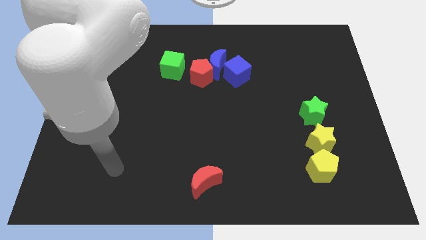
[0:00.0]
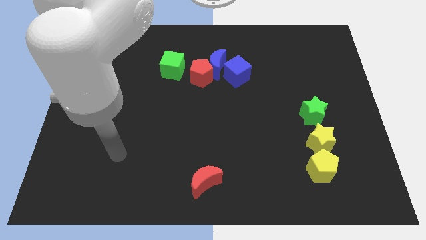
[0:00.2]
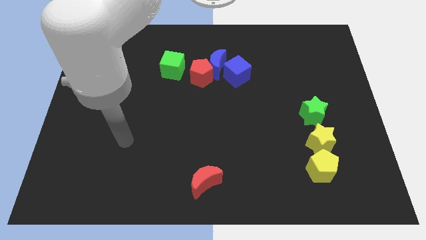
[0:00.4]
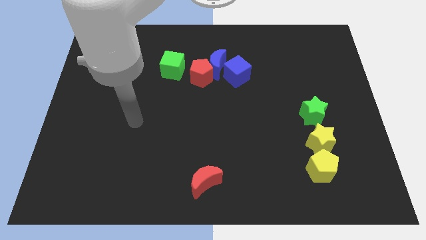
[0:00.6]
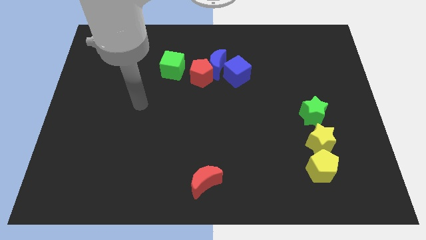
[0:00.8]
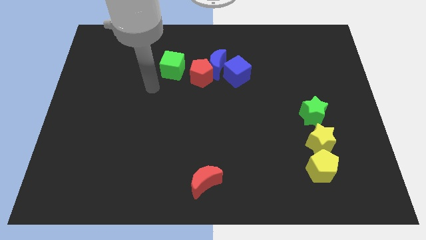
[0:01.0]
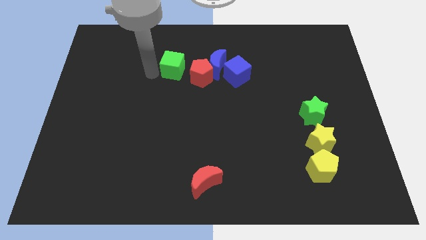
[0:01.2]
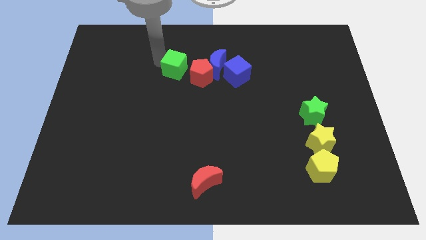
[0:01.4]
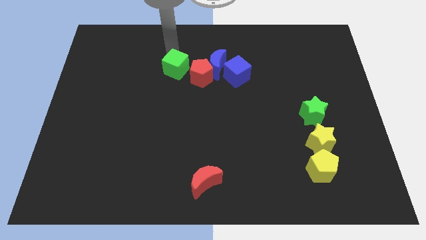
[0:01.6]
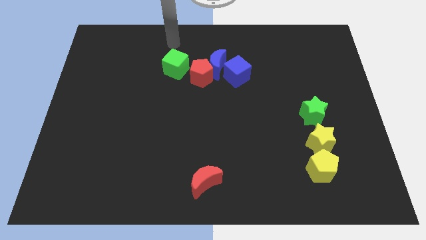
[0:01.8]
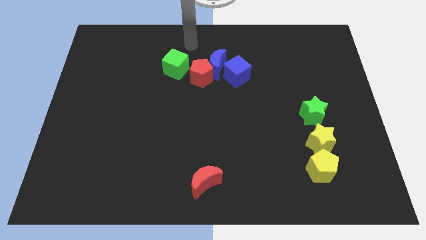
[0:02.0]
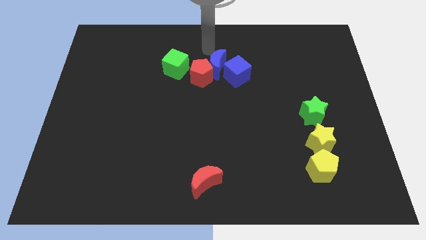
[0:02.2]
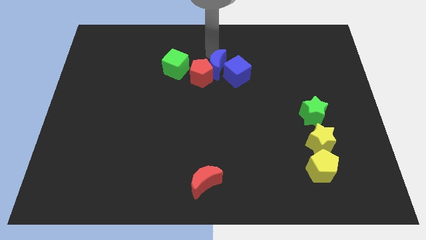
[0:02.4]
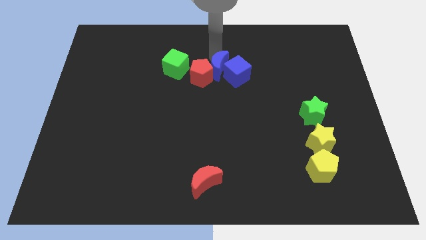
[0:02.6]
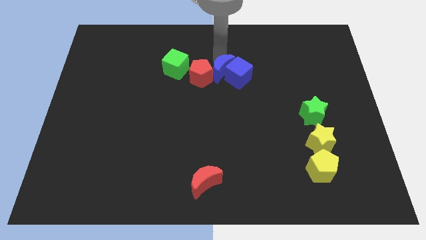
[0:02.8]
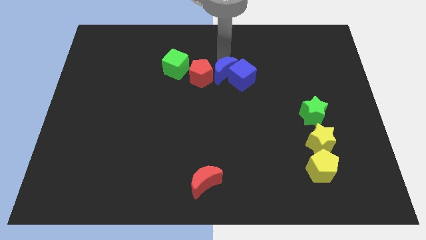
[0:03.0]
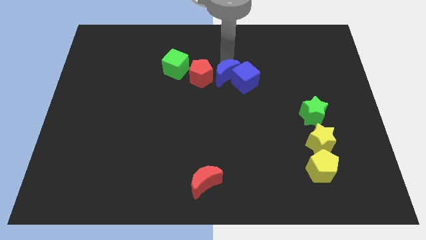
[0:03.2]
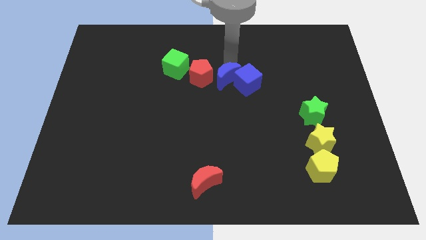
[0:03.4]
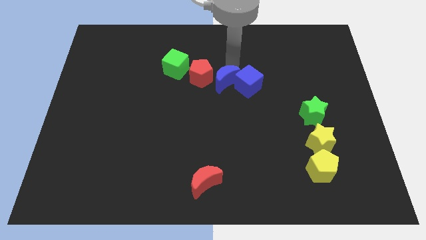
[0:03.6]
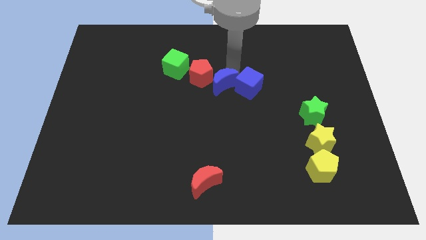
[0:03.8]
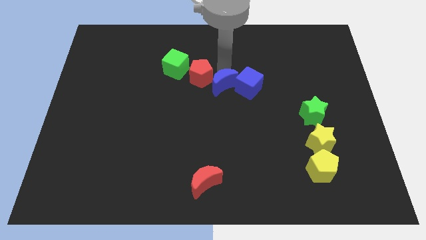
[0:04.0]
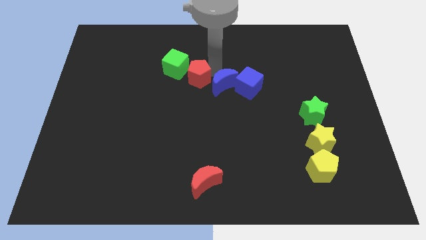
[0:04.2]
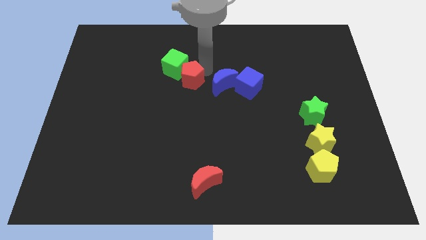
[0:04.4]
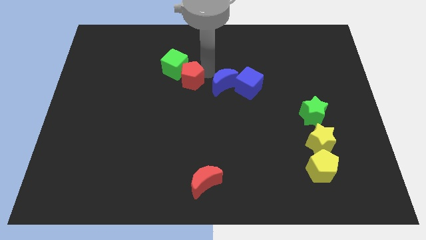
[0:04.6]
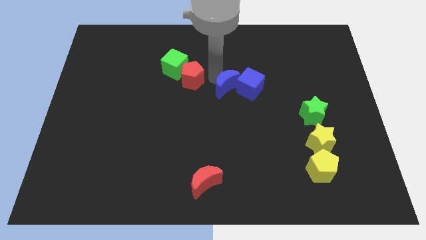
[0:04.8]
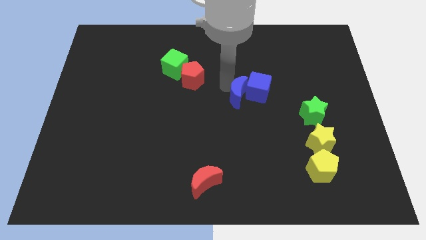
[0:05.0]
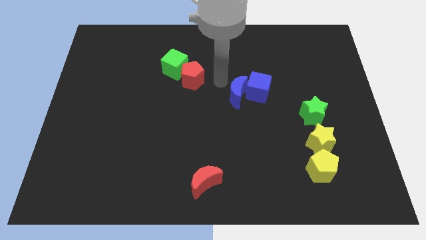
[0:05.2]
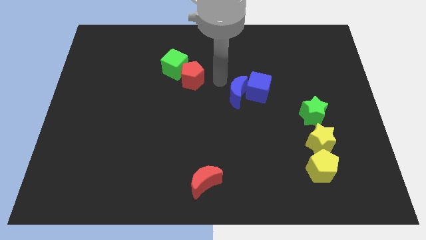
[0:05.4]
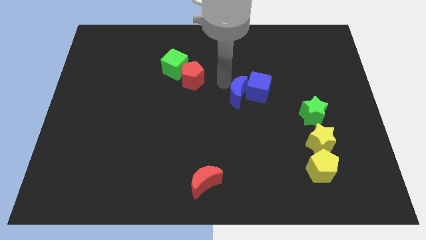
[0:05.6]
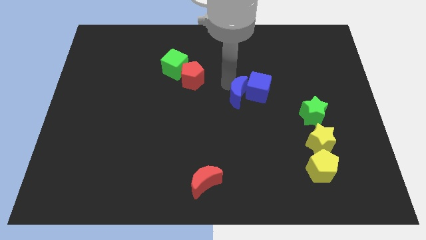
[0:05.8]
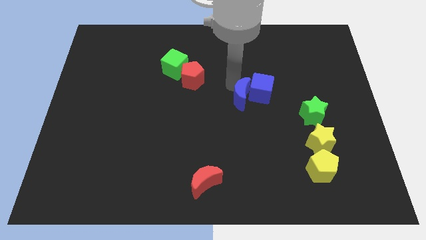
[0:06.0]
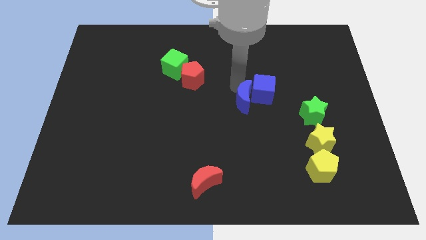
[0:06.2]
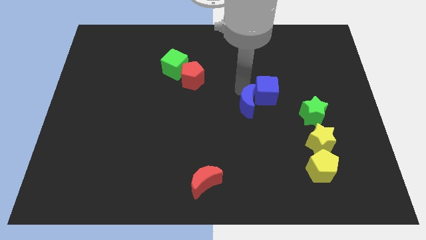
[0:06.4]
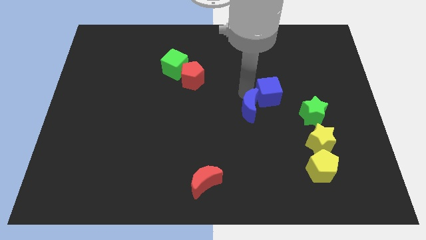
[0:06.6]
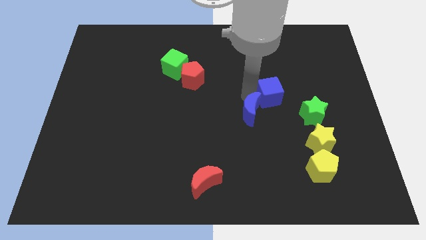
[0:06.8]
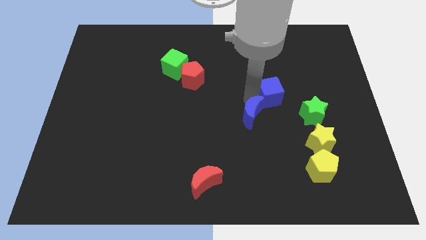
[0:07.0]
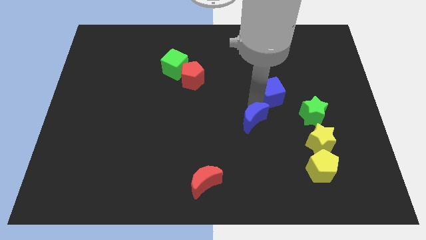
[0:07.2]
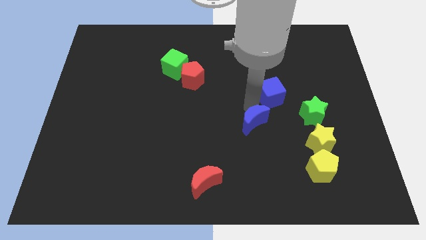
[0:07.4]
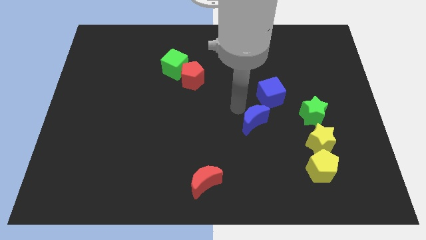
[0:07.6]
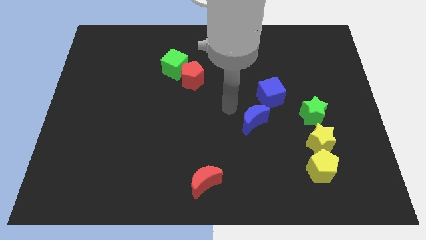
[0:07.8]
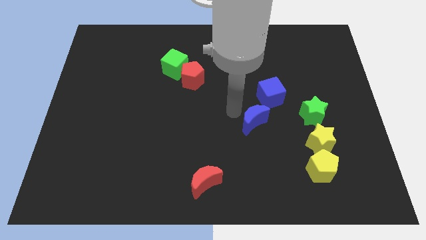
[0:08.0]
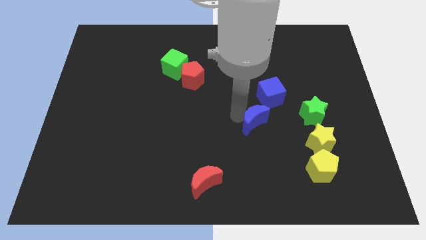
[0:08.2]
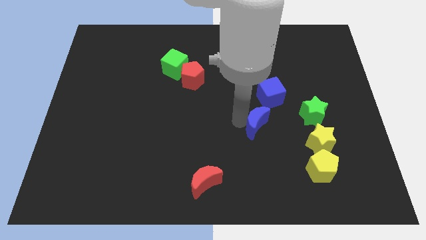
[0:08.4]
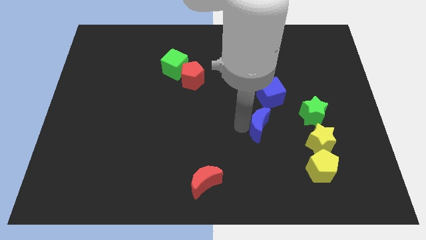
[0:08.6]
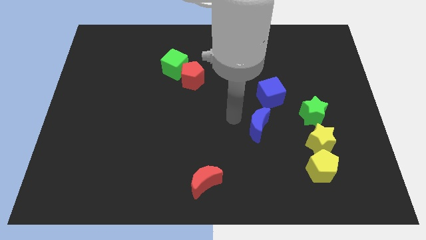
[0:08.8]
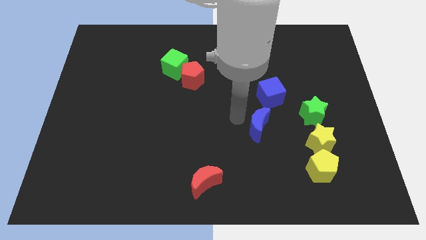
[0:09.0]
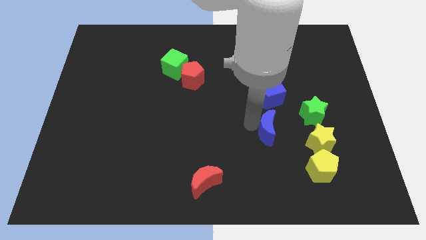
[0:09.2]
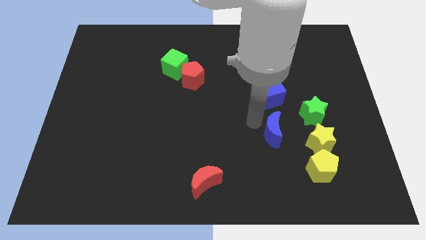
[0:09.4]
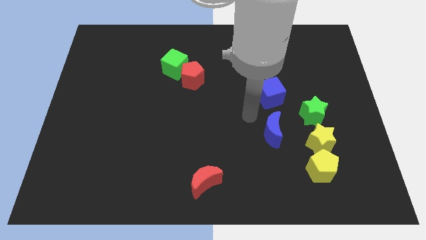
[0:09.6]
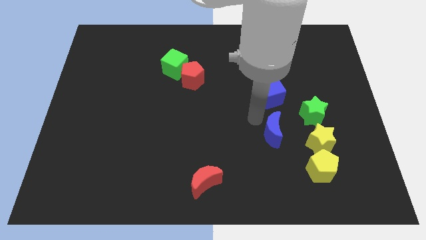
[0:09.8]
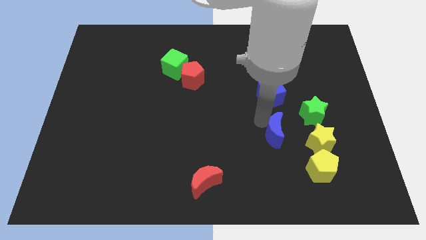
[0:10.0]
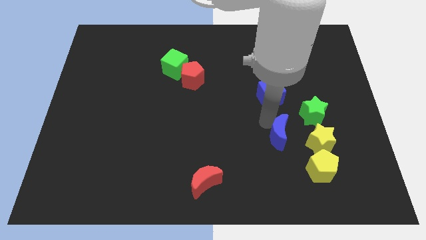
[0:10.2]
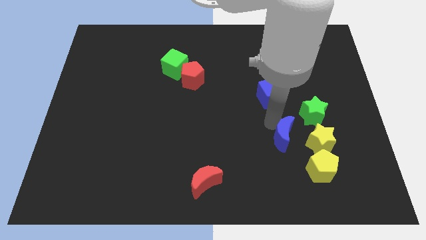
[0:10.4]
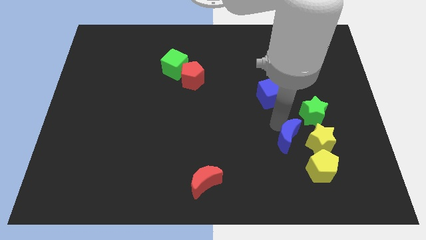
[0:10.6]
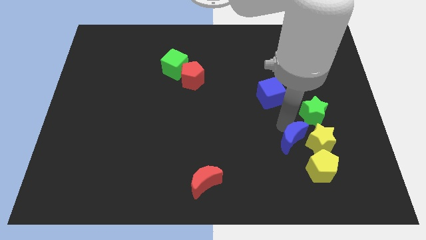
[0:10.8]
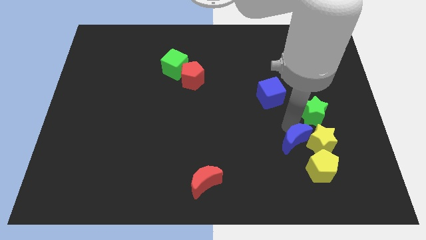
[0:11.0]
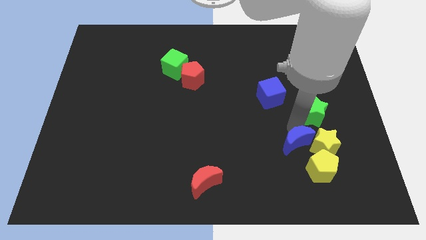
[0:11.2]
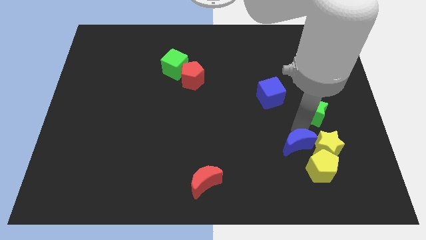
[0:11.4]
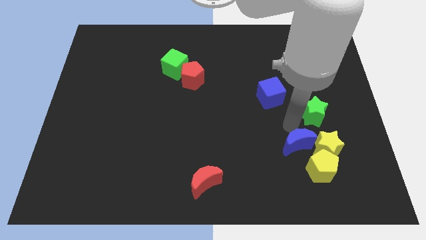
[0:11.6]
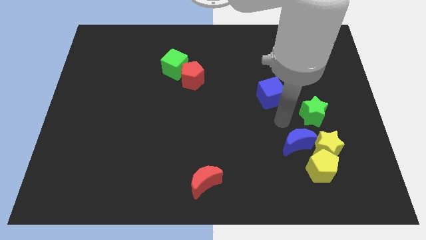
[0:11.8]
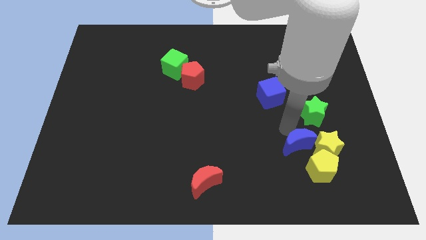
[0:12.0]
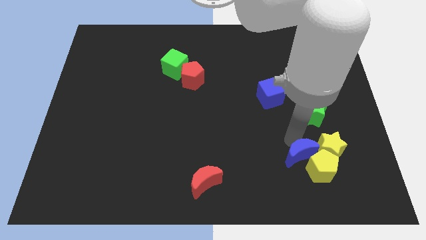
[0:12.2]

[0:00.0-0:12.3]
put the blue moon next to the yellow pentagon
